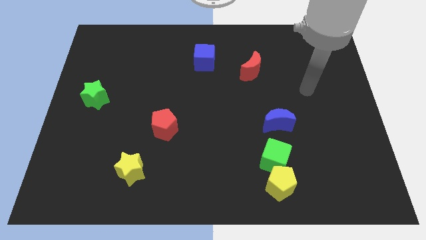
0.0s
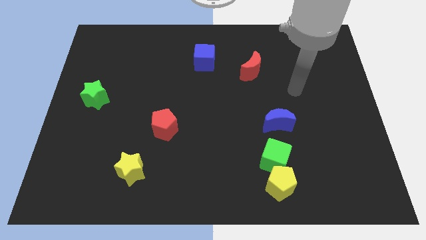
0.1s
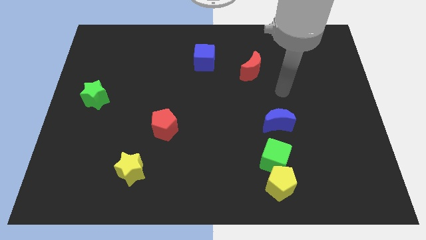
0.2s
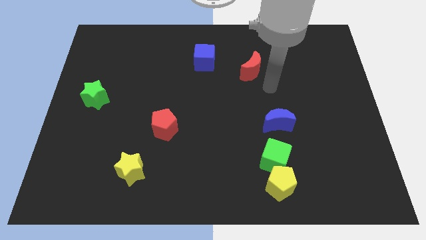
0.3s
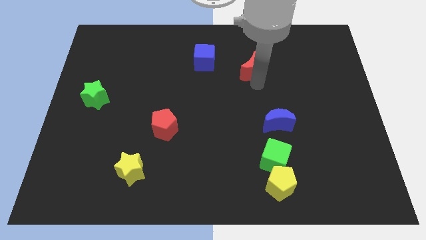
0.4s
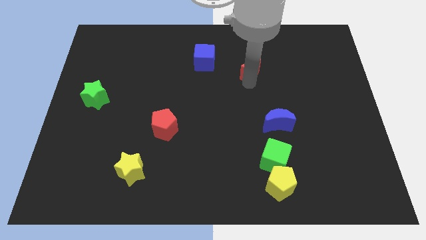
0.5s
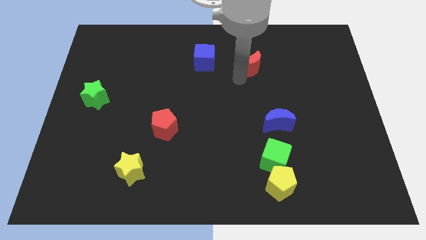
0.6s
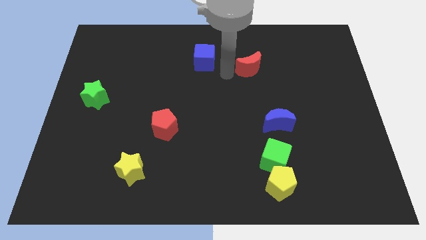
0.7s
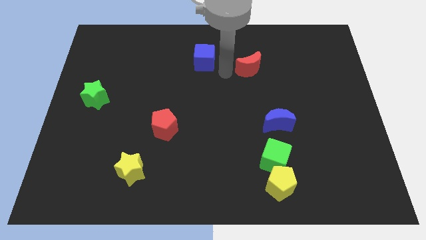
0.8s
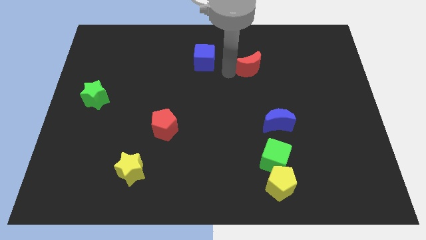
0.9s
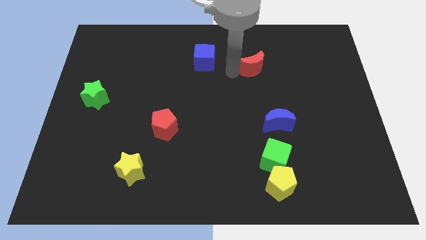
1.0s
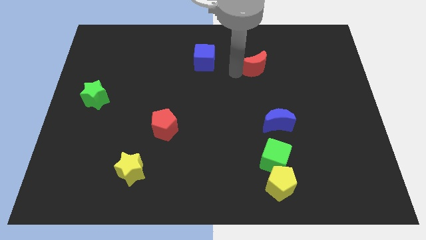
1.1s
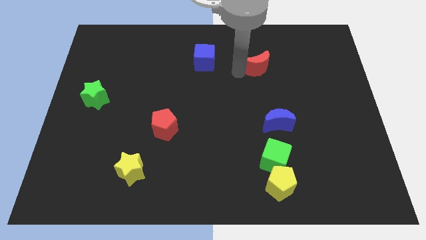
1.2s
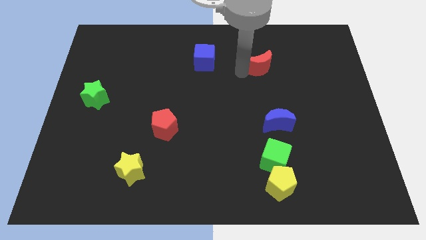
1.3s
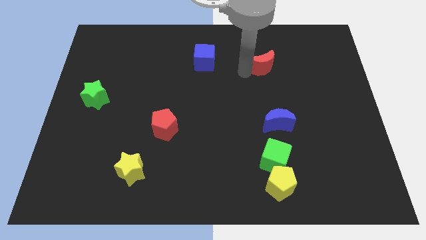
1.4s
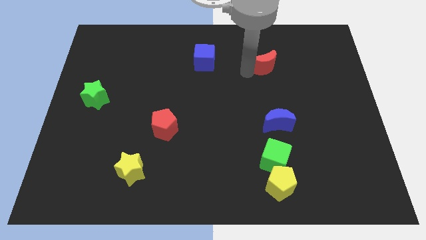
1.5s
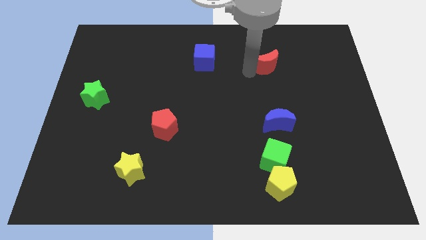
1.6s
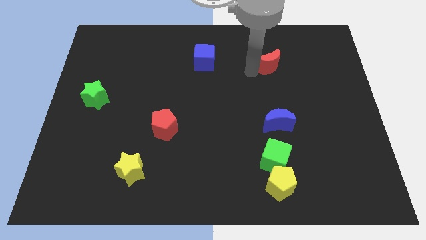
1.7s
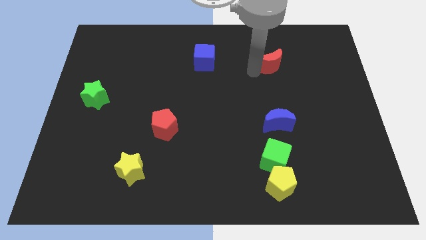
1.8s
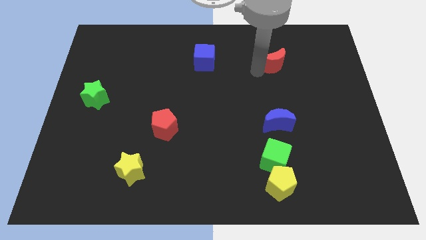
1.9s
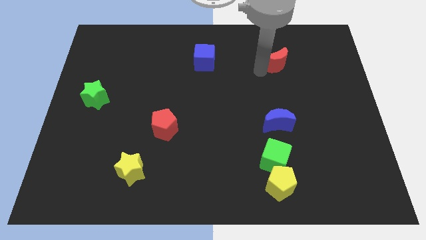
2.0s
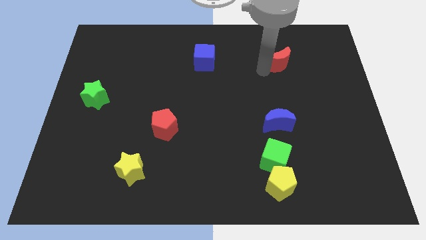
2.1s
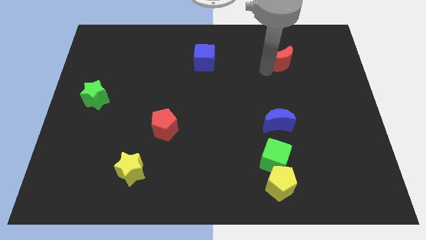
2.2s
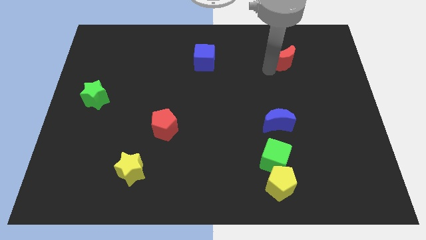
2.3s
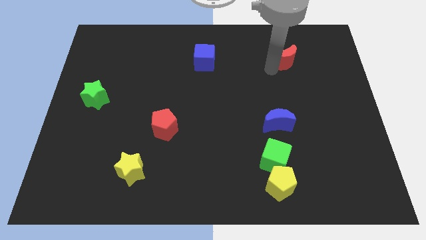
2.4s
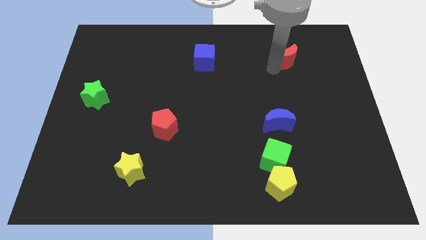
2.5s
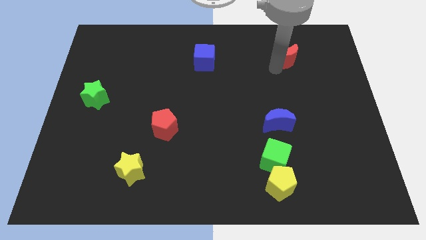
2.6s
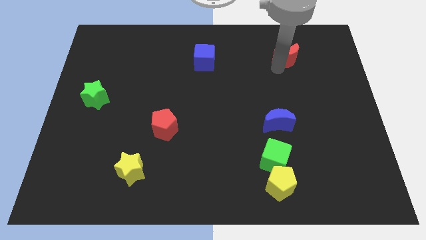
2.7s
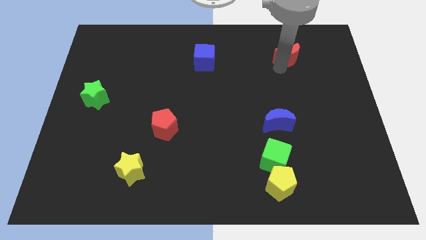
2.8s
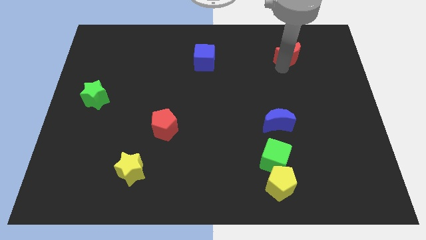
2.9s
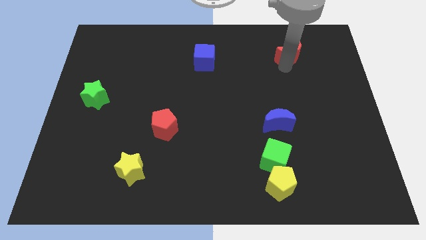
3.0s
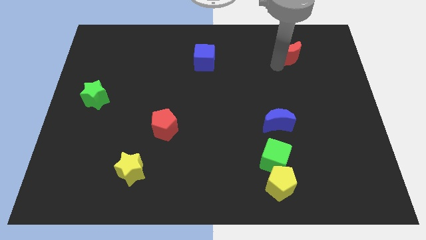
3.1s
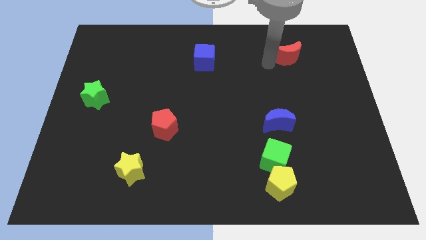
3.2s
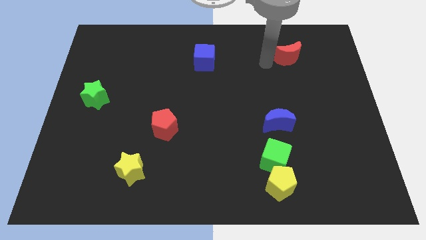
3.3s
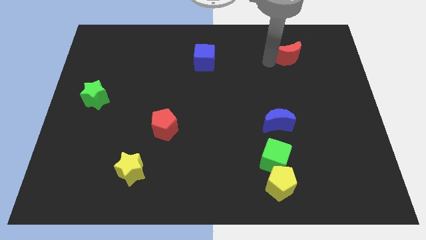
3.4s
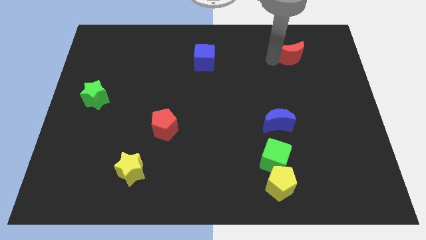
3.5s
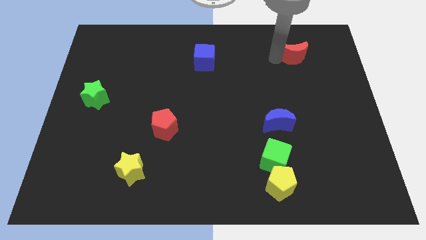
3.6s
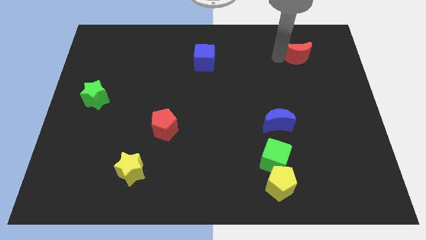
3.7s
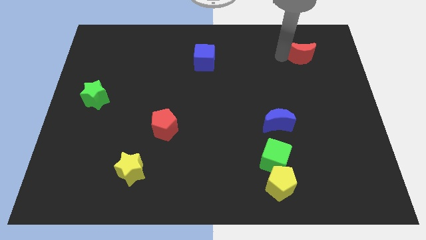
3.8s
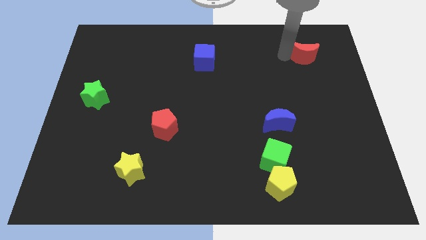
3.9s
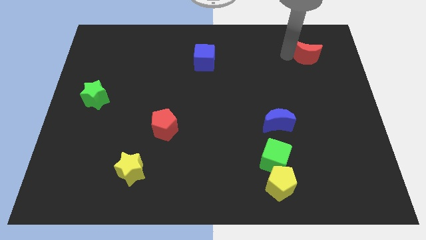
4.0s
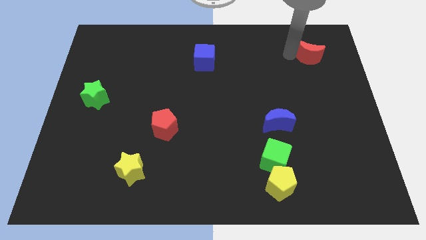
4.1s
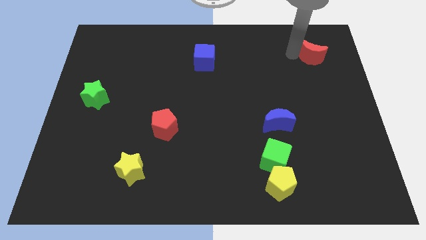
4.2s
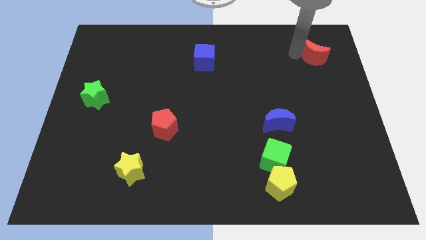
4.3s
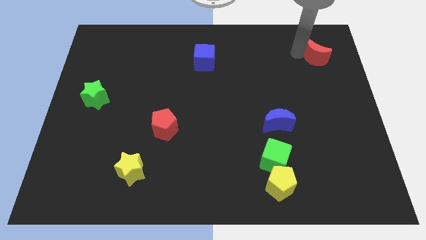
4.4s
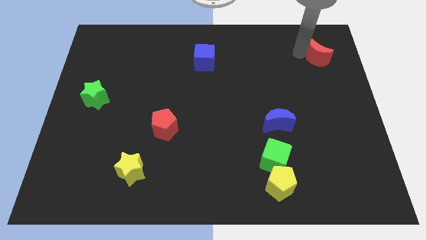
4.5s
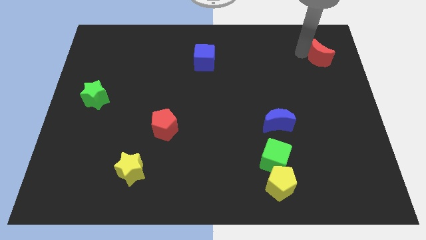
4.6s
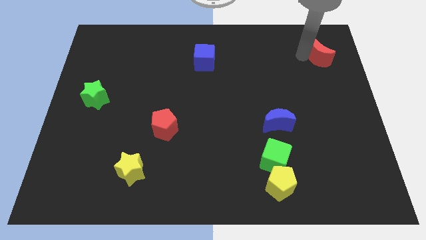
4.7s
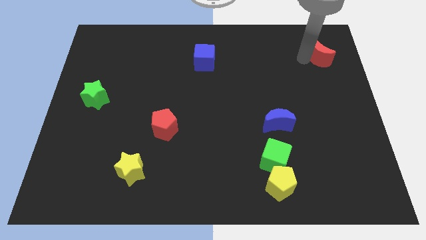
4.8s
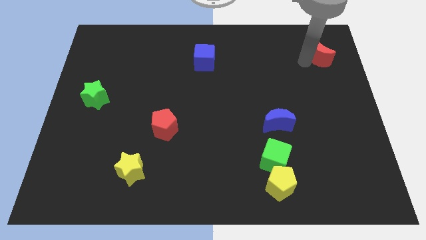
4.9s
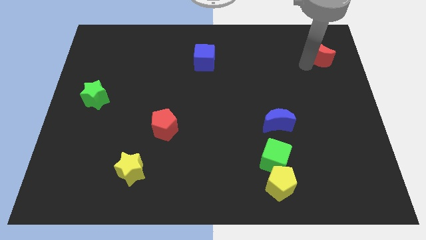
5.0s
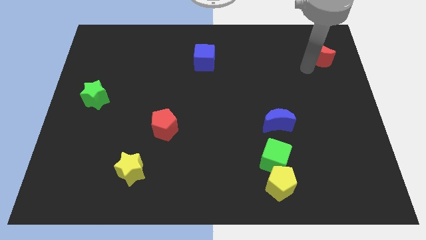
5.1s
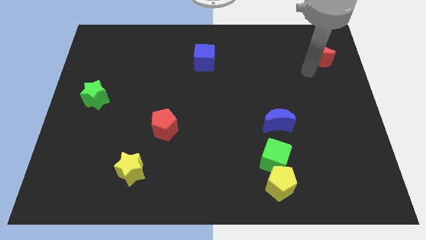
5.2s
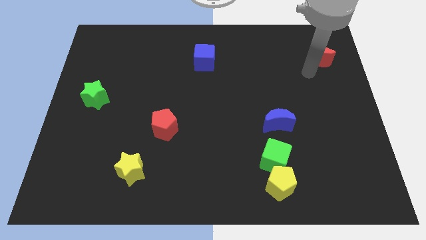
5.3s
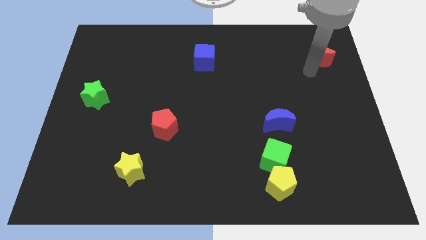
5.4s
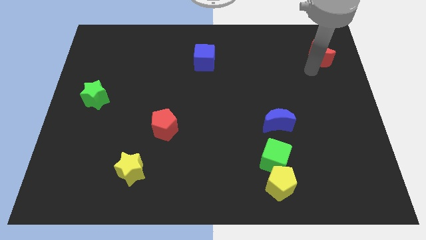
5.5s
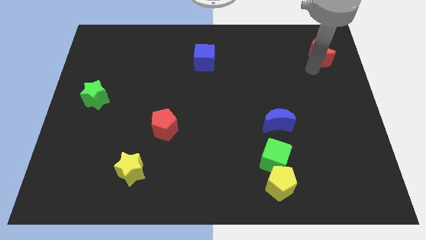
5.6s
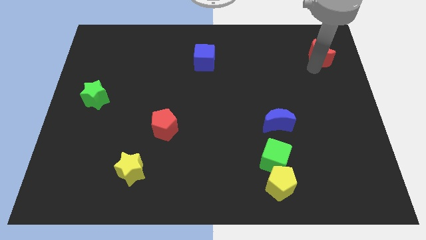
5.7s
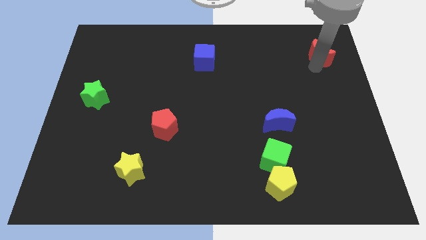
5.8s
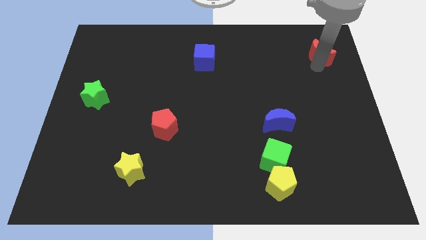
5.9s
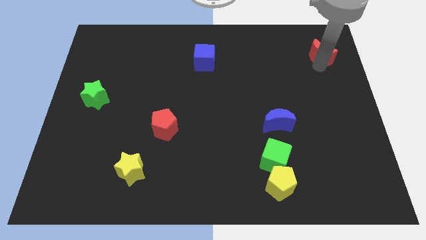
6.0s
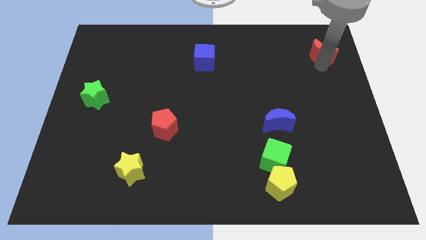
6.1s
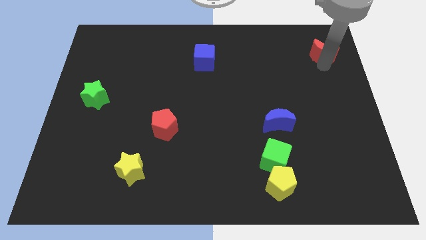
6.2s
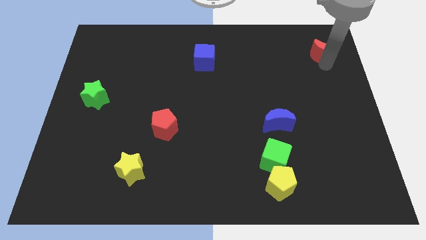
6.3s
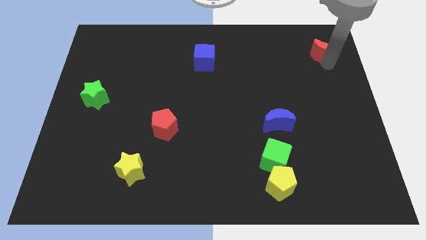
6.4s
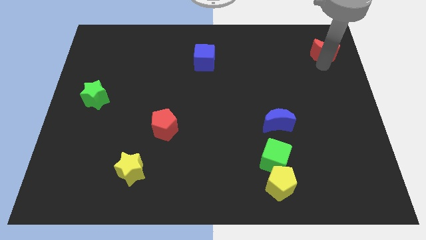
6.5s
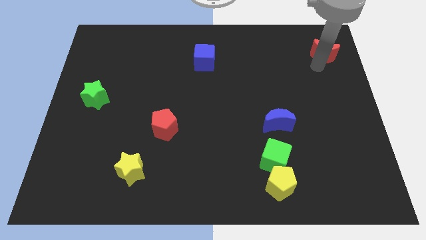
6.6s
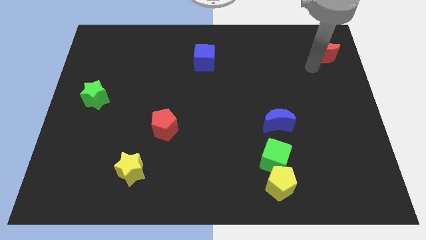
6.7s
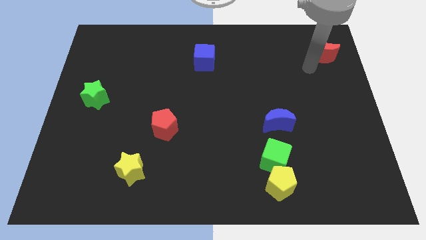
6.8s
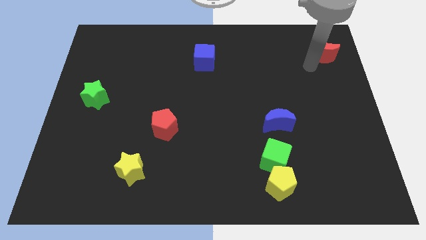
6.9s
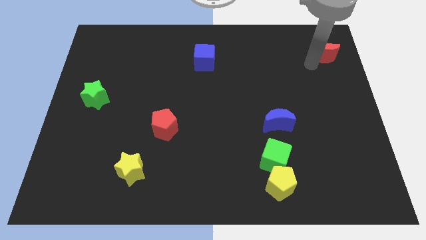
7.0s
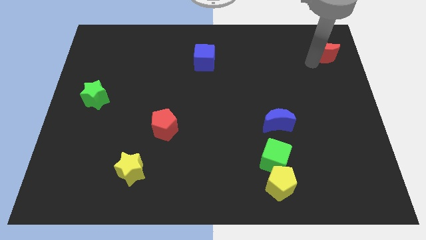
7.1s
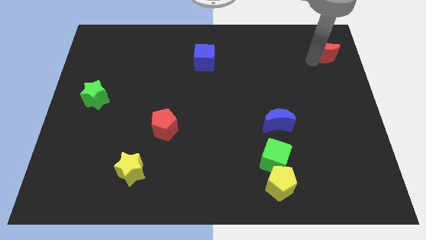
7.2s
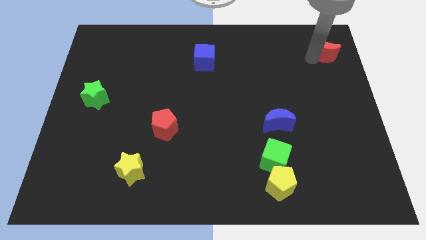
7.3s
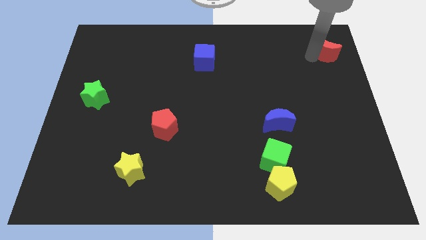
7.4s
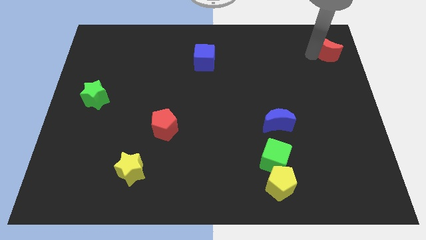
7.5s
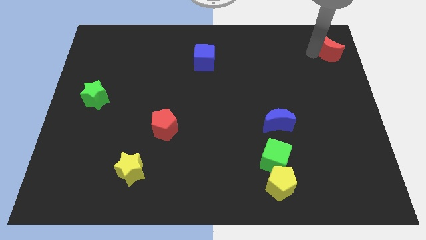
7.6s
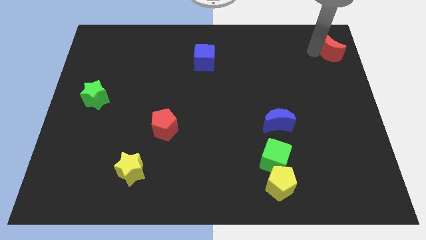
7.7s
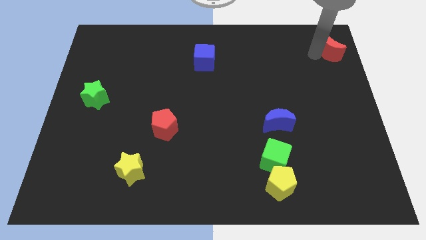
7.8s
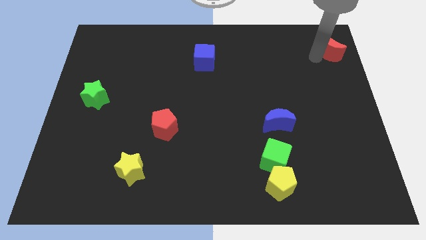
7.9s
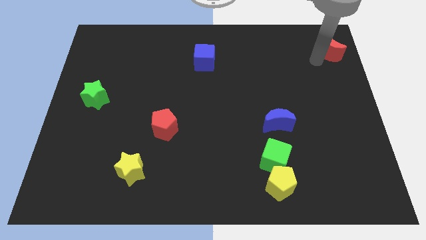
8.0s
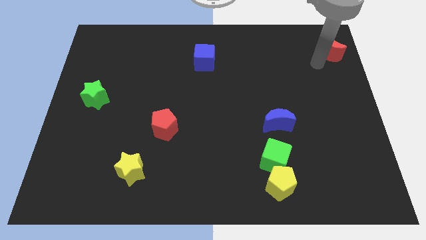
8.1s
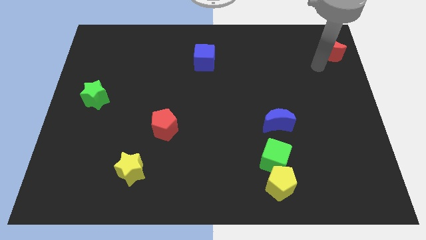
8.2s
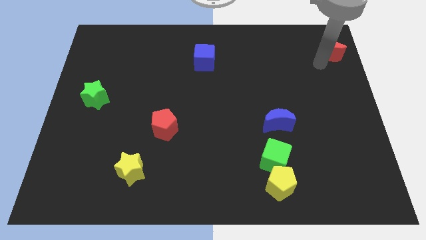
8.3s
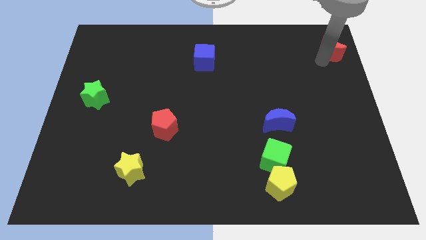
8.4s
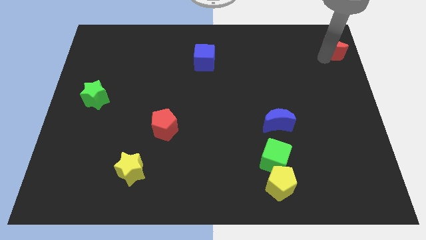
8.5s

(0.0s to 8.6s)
move the red moon to the top right
